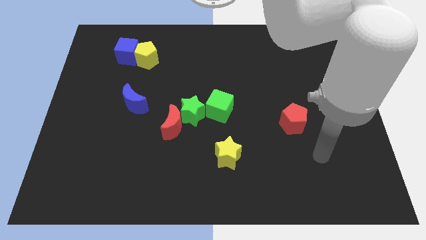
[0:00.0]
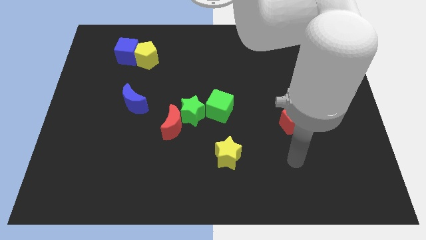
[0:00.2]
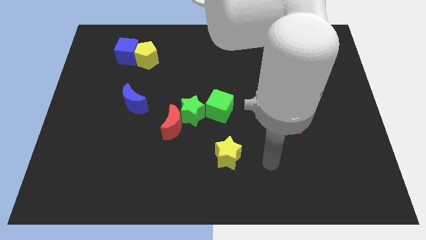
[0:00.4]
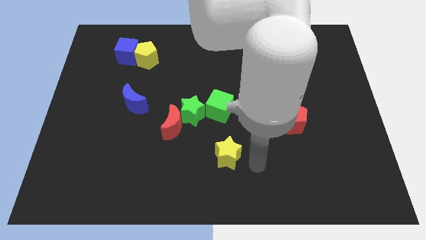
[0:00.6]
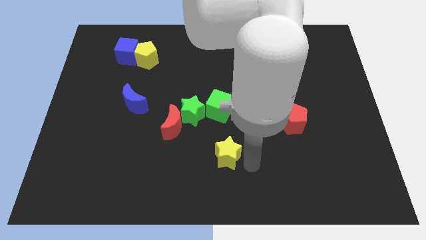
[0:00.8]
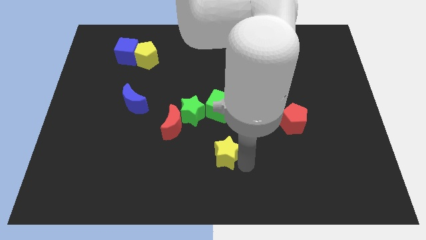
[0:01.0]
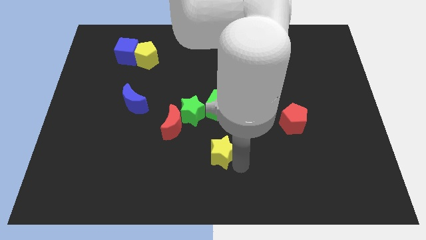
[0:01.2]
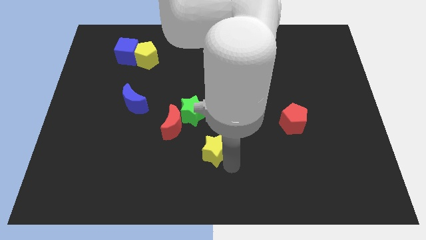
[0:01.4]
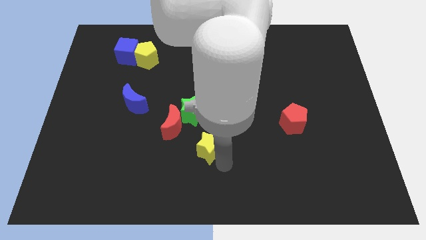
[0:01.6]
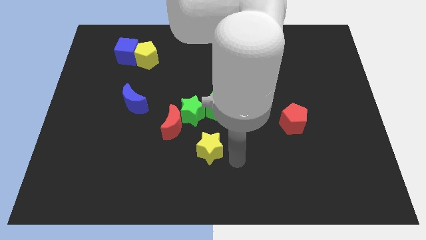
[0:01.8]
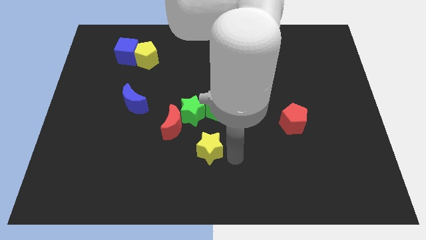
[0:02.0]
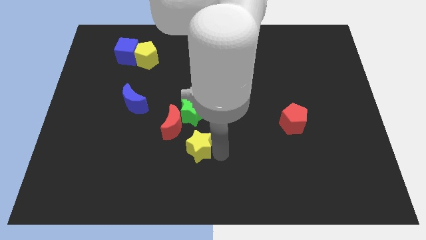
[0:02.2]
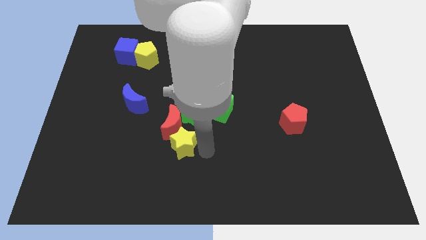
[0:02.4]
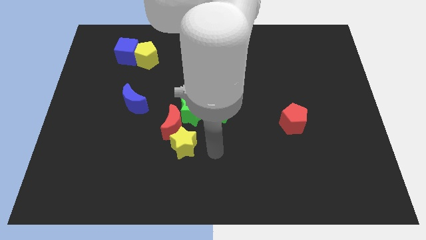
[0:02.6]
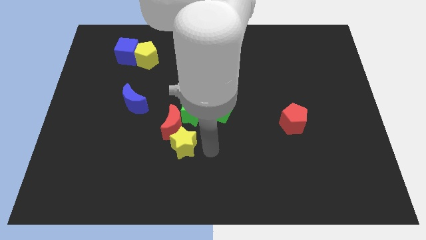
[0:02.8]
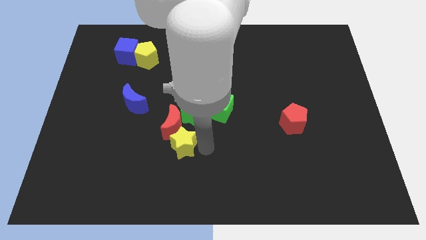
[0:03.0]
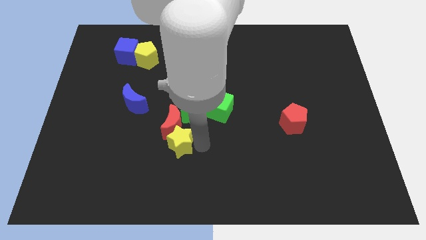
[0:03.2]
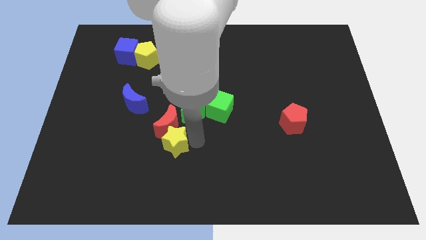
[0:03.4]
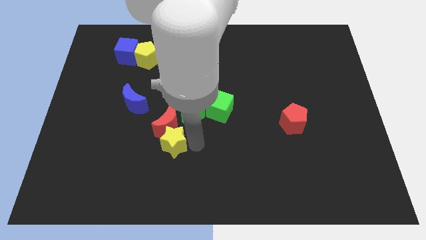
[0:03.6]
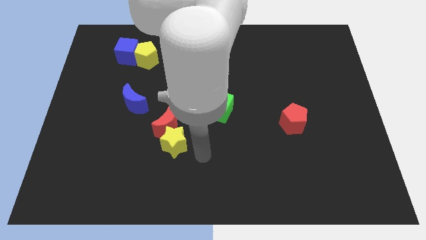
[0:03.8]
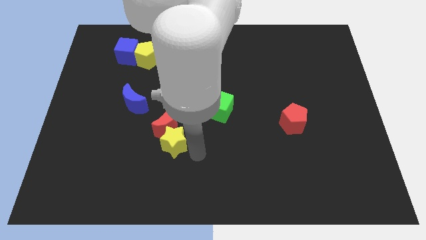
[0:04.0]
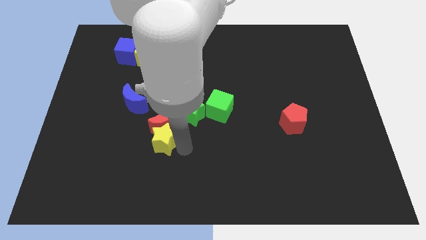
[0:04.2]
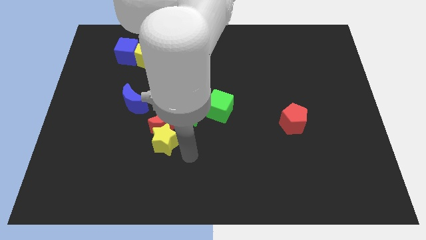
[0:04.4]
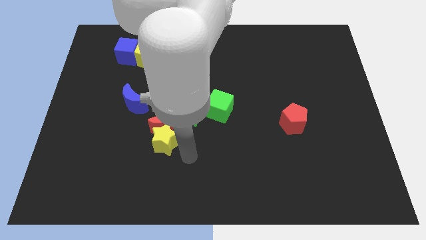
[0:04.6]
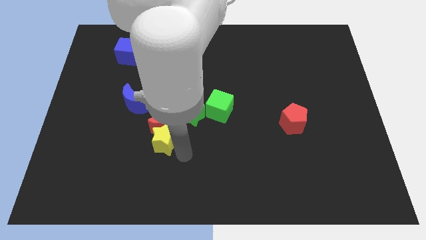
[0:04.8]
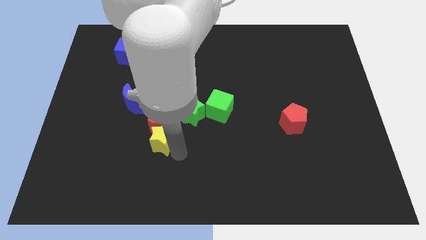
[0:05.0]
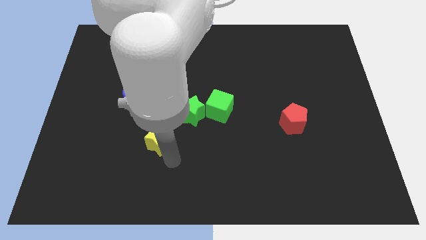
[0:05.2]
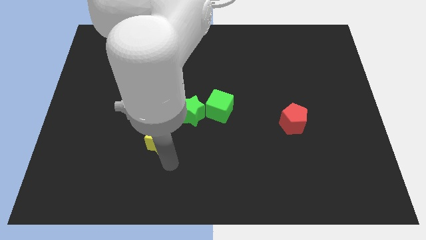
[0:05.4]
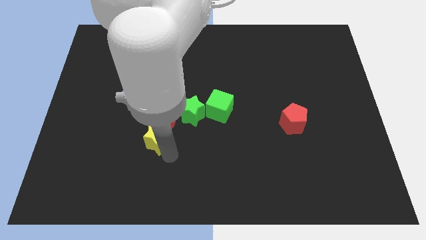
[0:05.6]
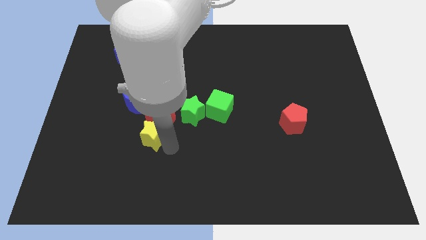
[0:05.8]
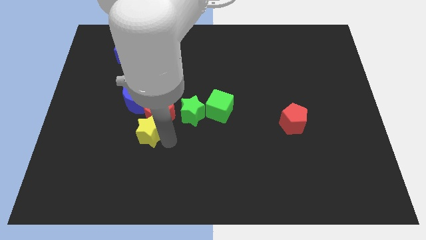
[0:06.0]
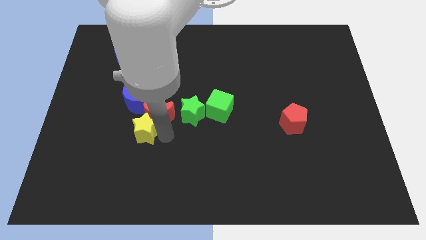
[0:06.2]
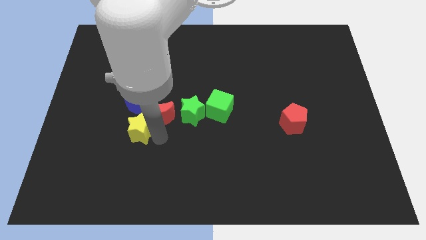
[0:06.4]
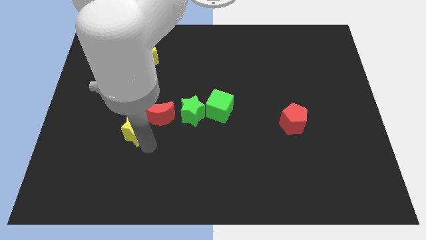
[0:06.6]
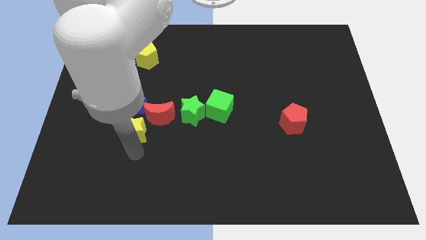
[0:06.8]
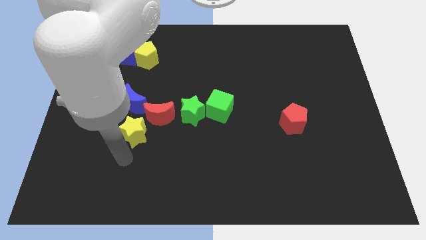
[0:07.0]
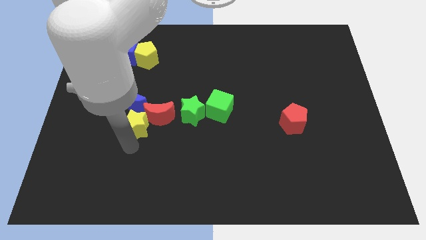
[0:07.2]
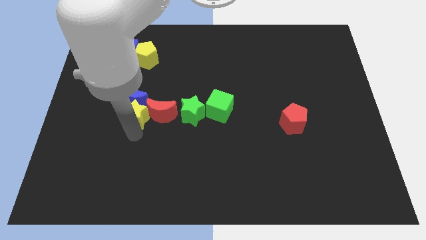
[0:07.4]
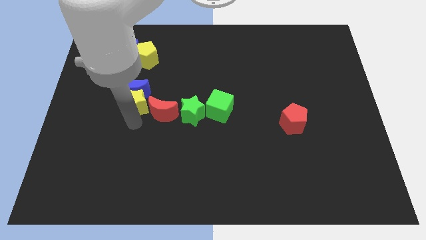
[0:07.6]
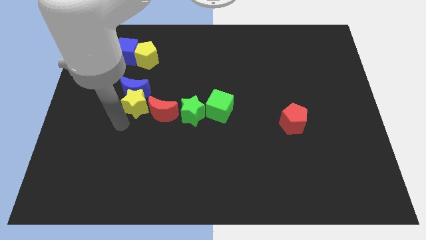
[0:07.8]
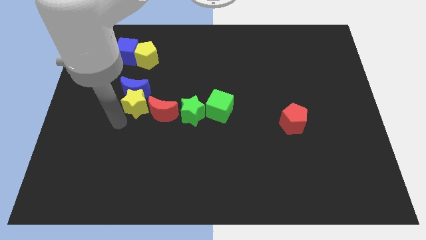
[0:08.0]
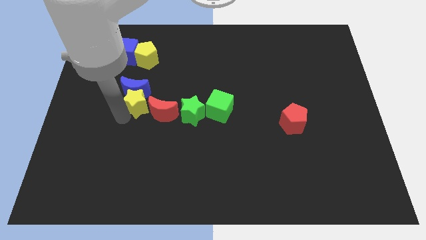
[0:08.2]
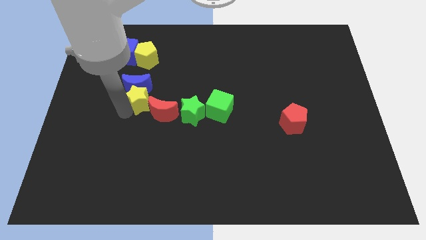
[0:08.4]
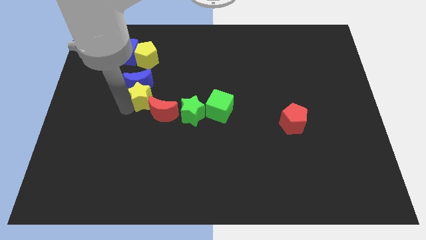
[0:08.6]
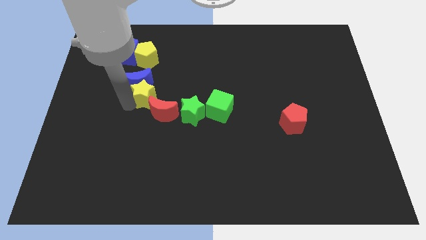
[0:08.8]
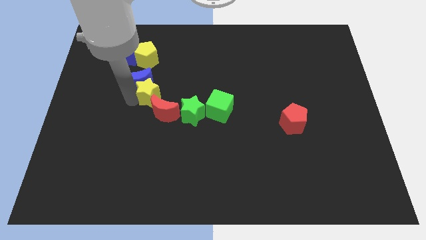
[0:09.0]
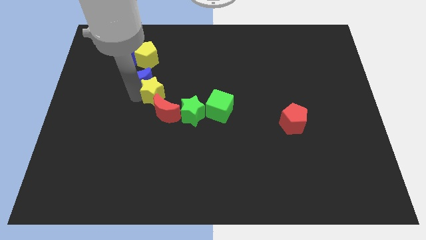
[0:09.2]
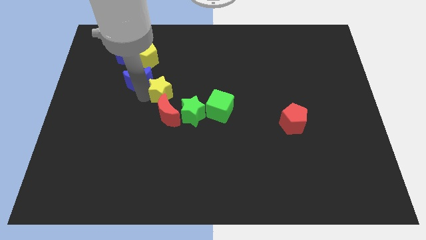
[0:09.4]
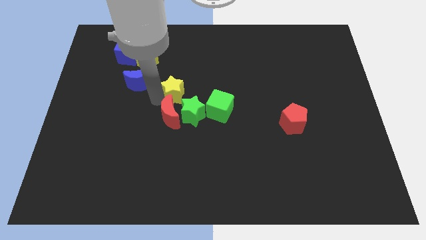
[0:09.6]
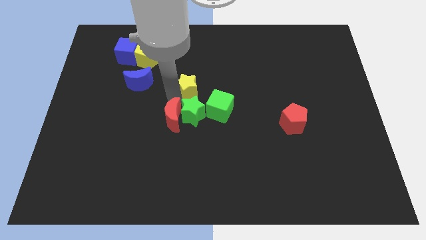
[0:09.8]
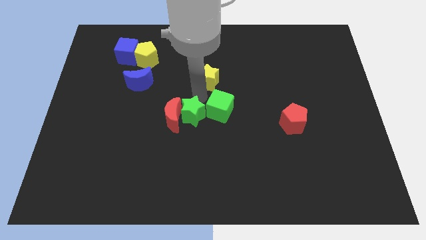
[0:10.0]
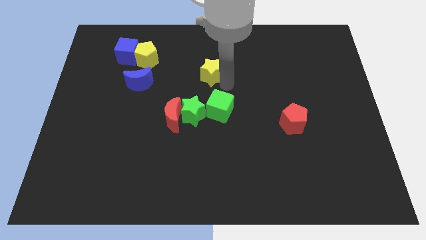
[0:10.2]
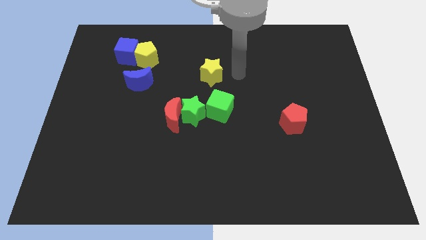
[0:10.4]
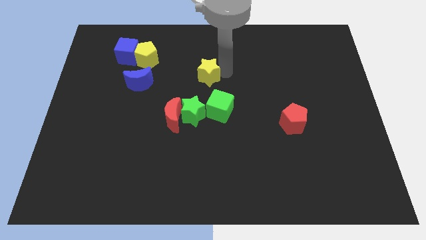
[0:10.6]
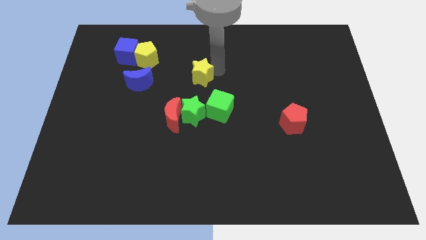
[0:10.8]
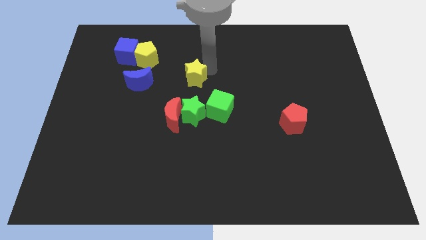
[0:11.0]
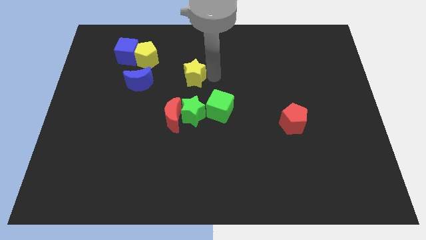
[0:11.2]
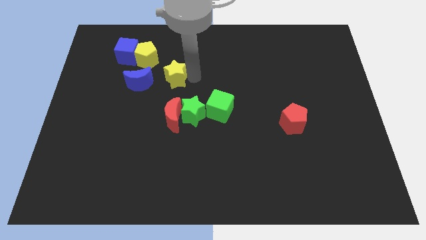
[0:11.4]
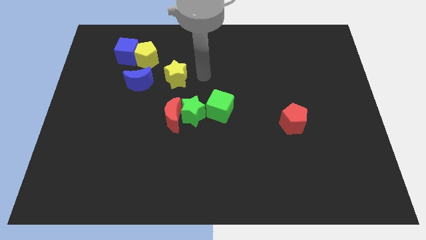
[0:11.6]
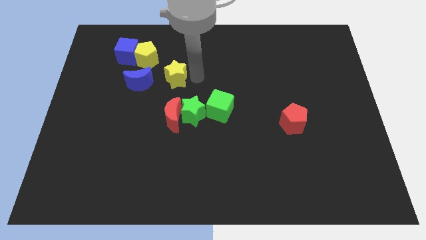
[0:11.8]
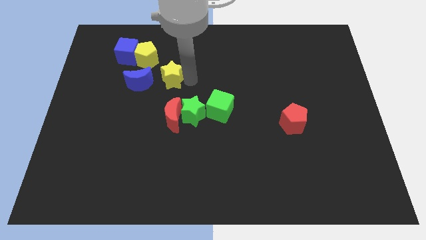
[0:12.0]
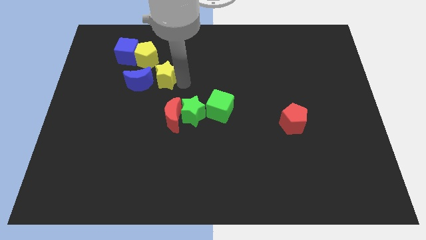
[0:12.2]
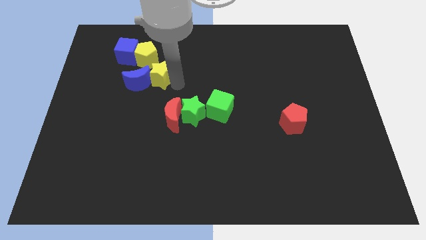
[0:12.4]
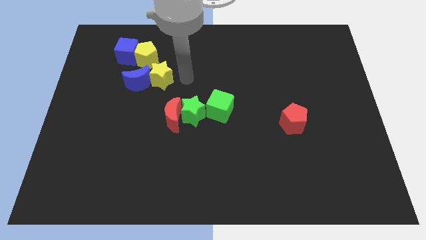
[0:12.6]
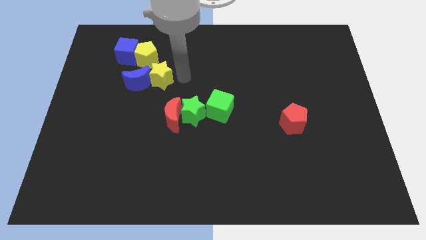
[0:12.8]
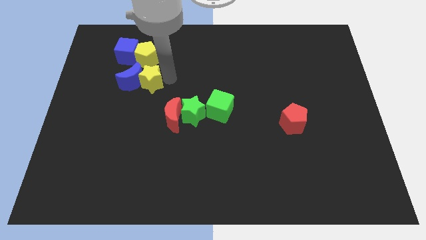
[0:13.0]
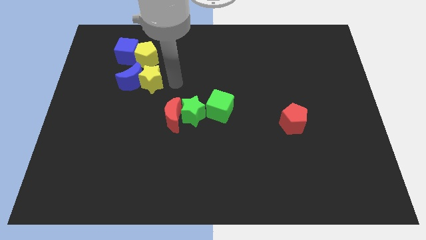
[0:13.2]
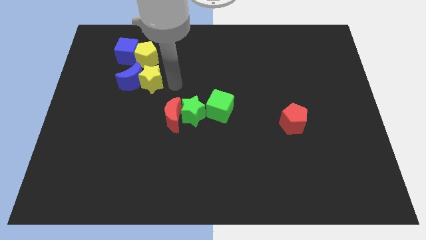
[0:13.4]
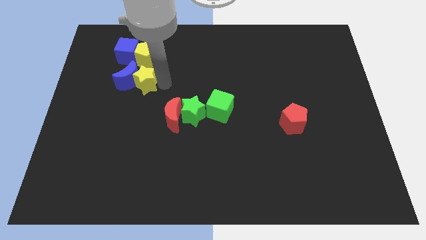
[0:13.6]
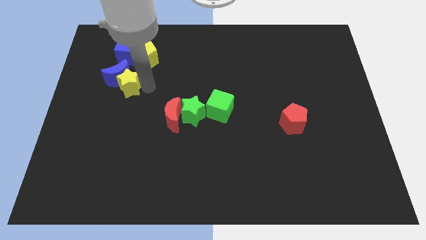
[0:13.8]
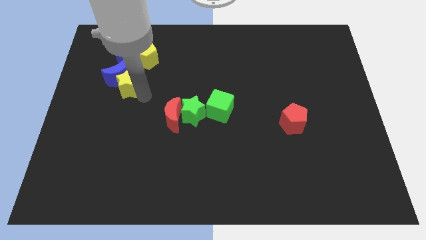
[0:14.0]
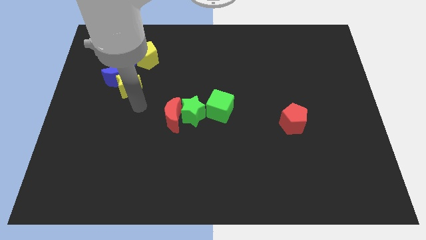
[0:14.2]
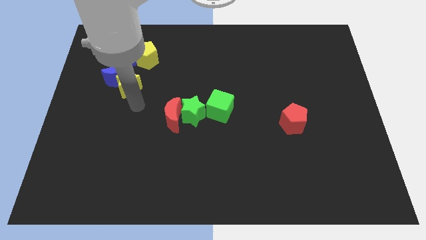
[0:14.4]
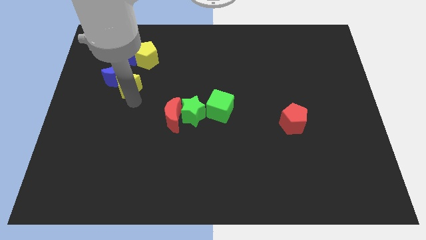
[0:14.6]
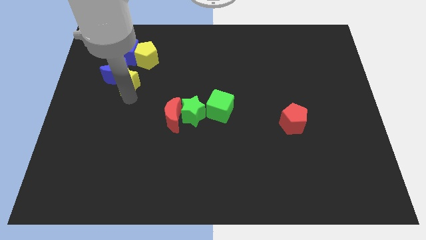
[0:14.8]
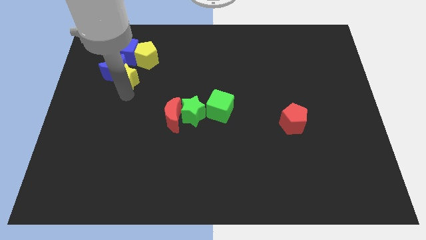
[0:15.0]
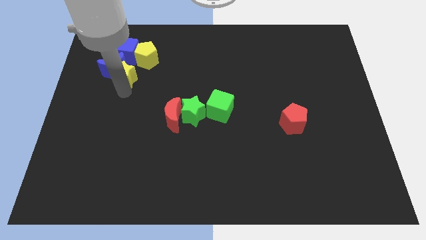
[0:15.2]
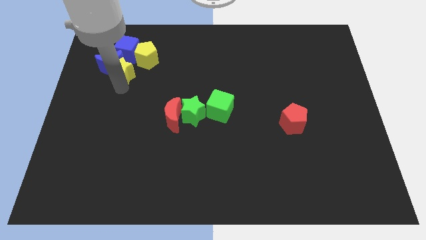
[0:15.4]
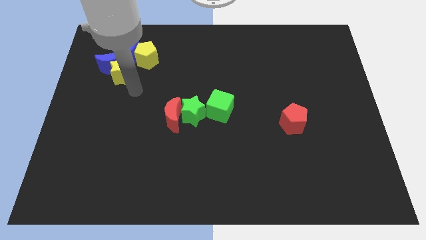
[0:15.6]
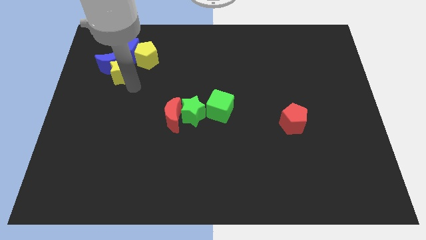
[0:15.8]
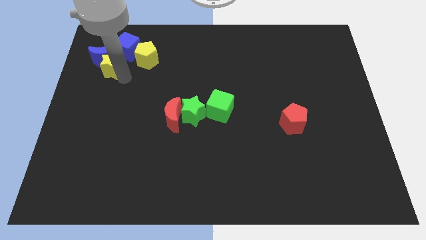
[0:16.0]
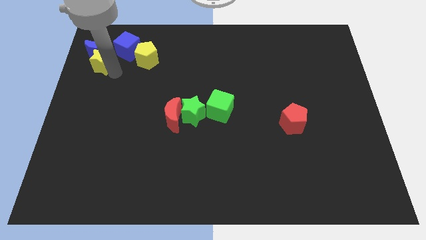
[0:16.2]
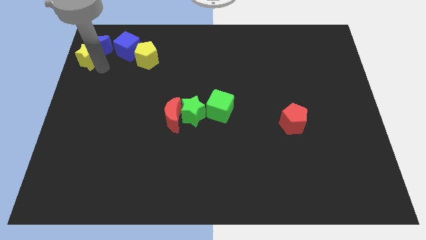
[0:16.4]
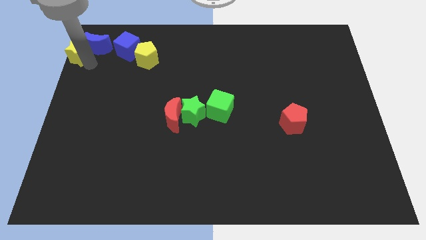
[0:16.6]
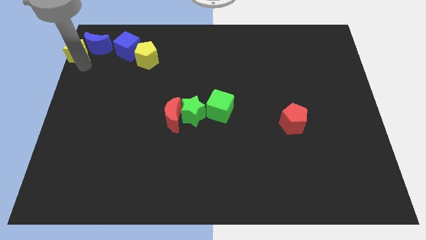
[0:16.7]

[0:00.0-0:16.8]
move the yellow star to the top left of the board
